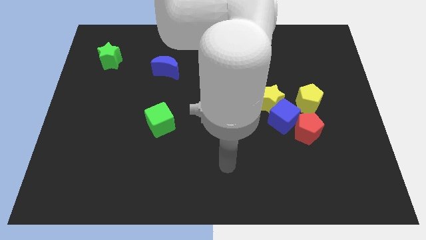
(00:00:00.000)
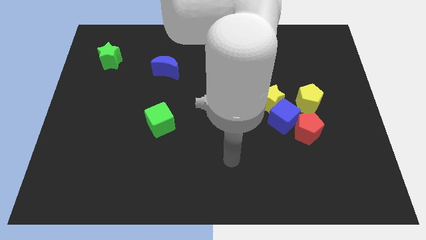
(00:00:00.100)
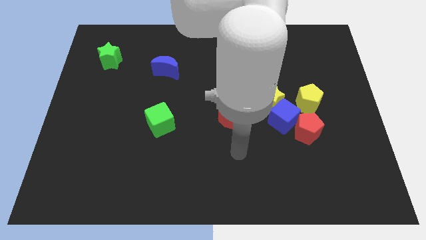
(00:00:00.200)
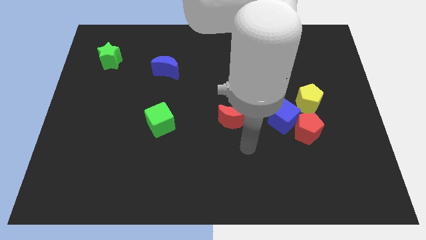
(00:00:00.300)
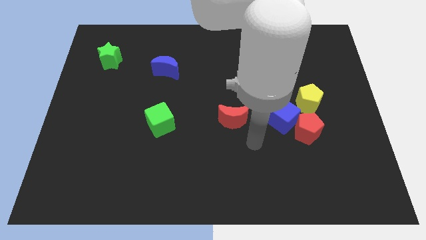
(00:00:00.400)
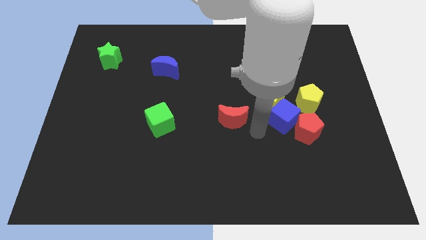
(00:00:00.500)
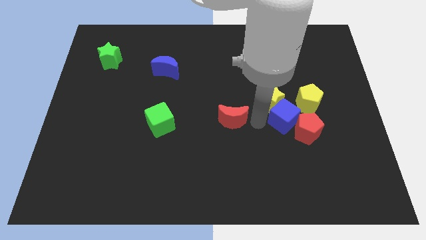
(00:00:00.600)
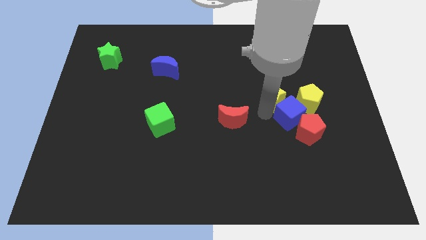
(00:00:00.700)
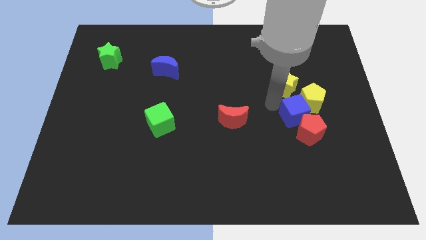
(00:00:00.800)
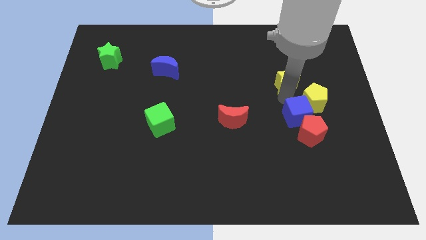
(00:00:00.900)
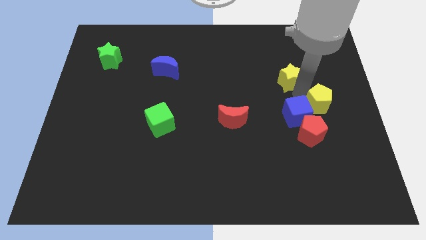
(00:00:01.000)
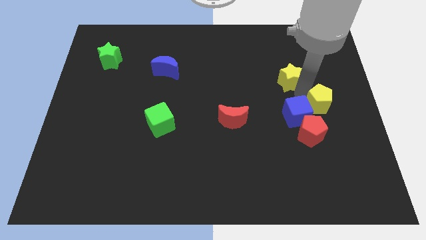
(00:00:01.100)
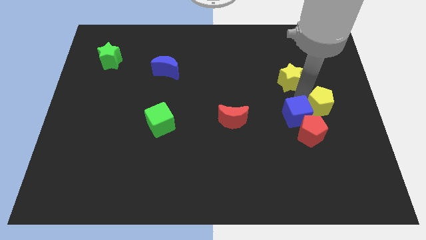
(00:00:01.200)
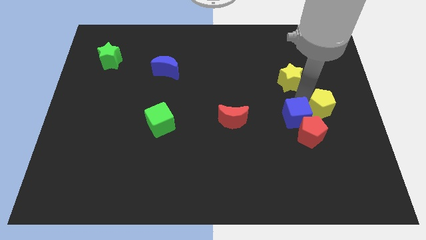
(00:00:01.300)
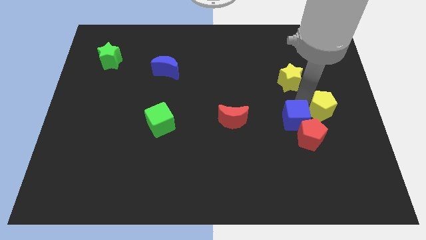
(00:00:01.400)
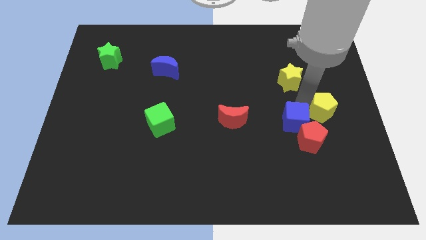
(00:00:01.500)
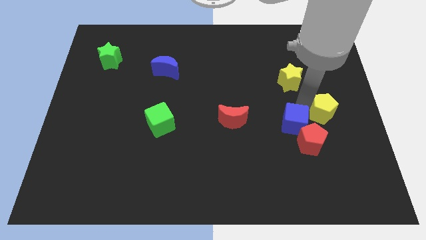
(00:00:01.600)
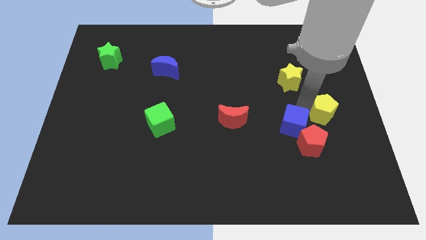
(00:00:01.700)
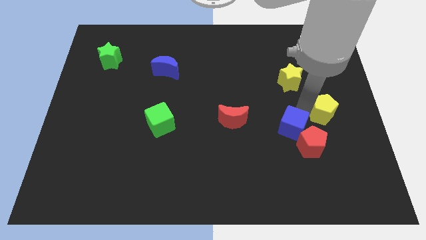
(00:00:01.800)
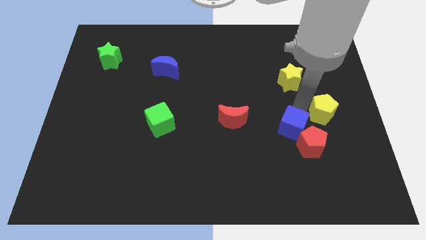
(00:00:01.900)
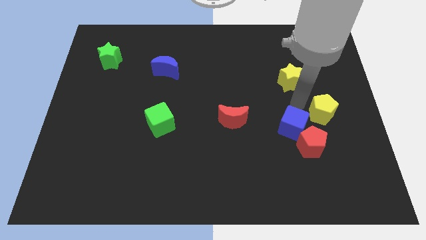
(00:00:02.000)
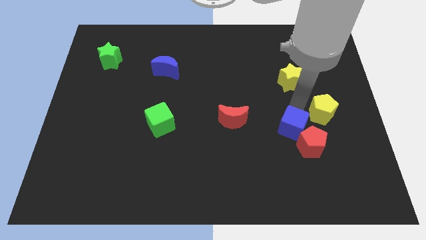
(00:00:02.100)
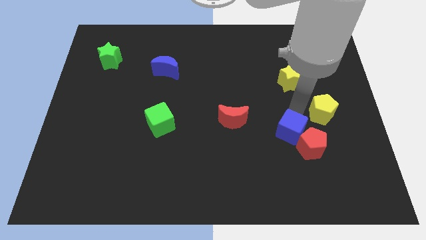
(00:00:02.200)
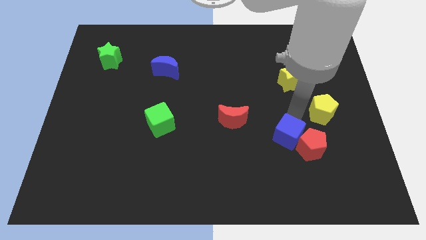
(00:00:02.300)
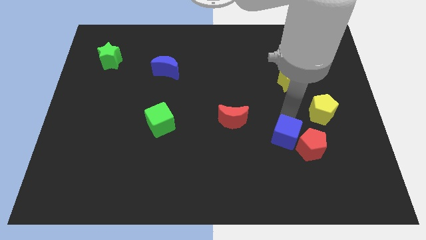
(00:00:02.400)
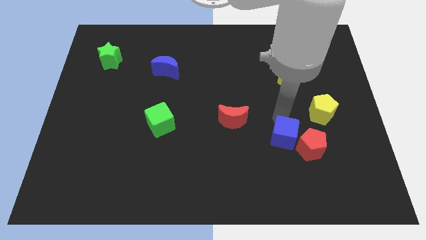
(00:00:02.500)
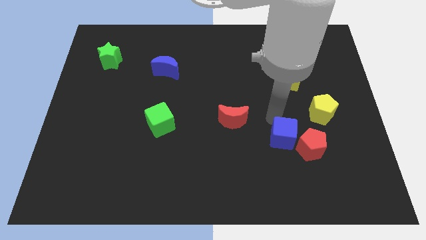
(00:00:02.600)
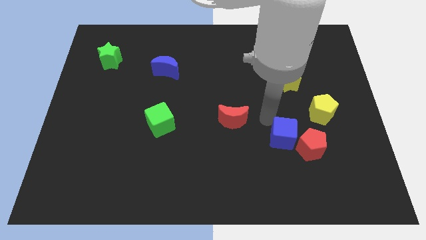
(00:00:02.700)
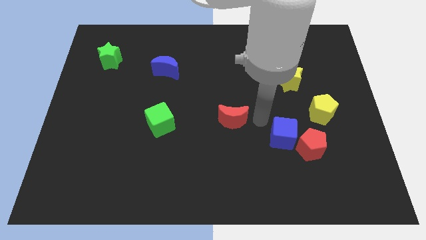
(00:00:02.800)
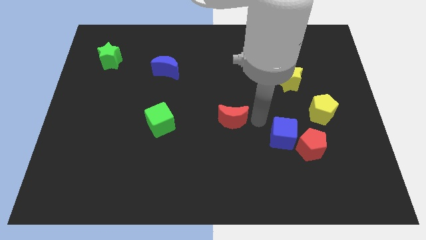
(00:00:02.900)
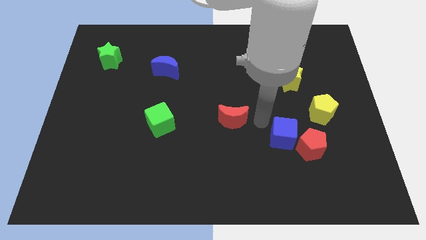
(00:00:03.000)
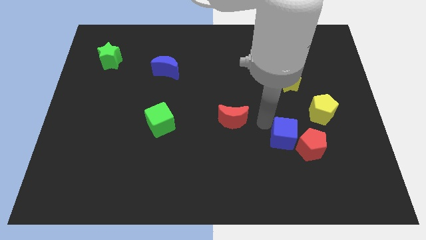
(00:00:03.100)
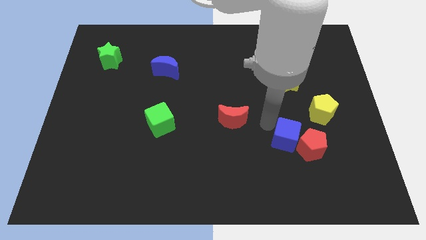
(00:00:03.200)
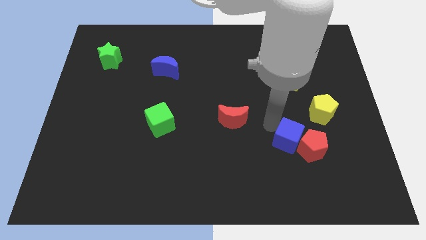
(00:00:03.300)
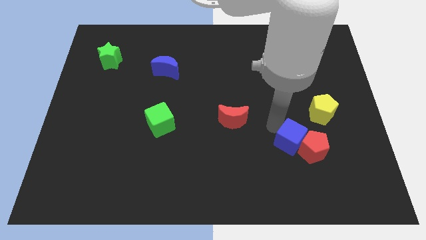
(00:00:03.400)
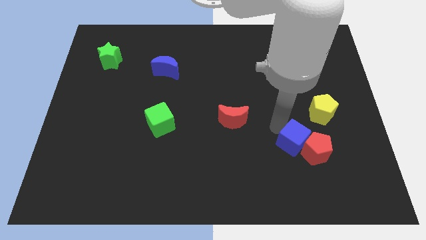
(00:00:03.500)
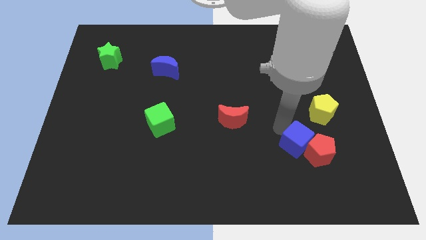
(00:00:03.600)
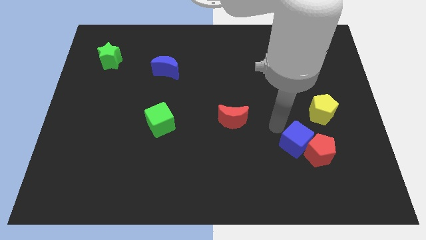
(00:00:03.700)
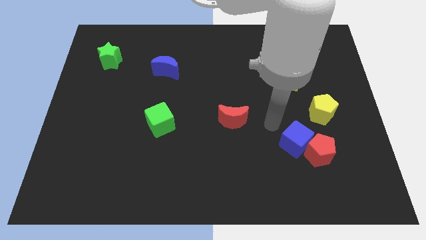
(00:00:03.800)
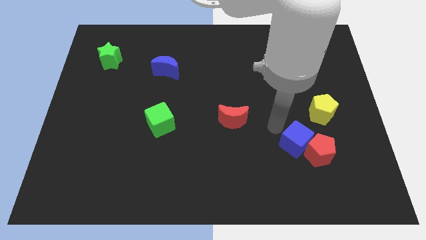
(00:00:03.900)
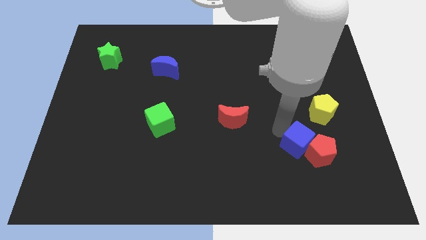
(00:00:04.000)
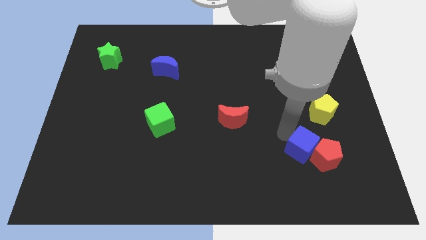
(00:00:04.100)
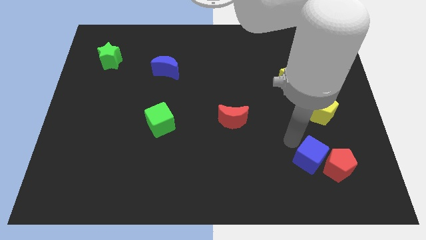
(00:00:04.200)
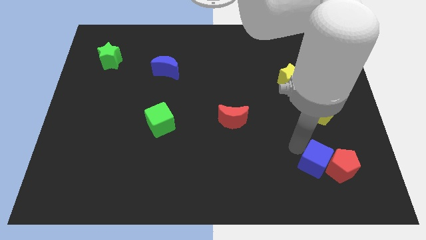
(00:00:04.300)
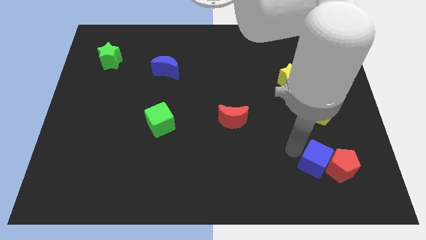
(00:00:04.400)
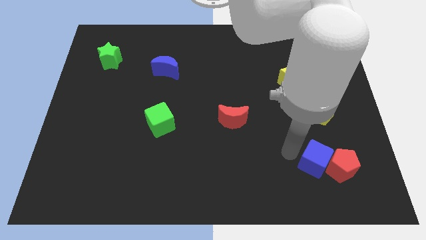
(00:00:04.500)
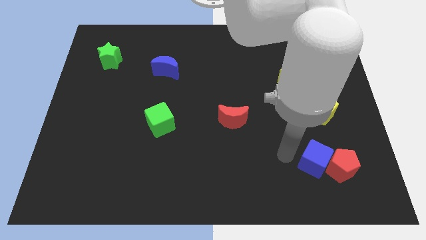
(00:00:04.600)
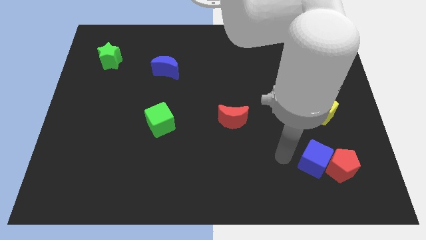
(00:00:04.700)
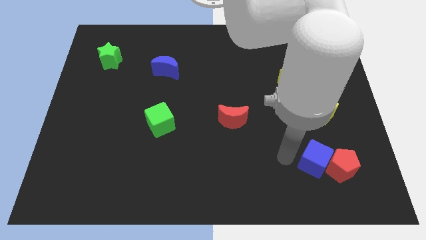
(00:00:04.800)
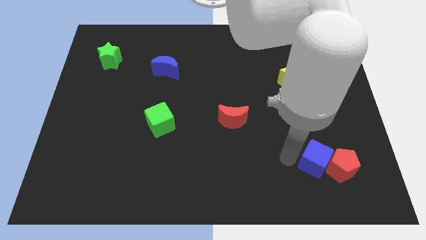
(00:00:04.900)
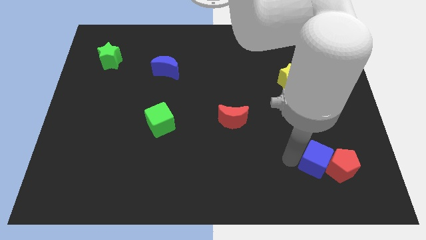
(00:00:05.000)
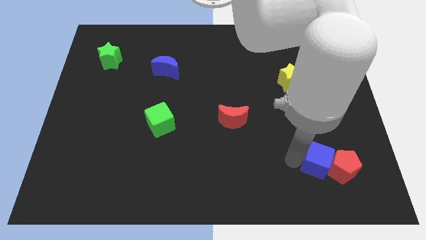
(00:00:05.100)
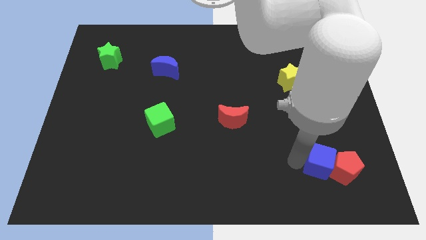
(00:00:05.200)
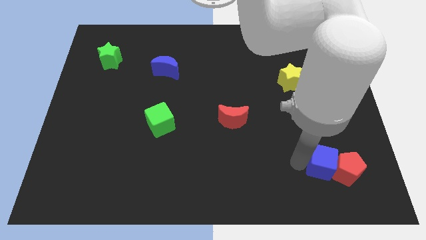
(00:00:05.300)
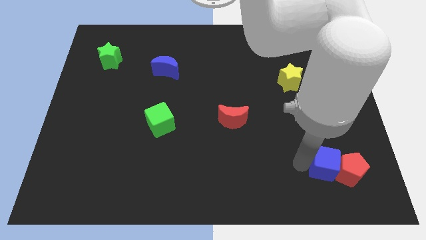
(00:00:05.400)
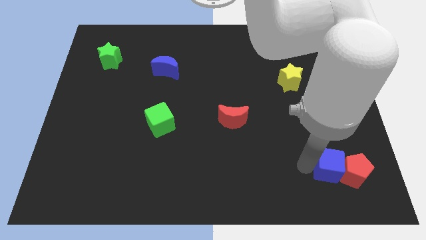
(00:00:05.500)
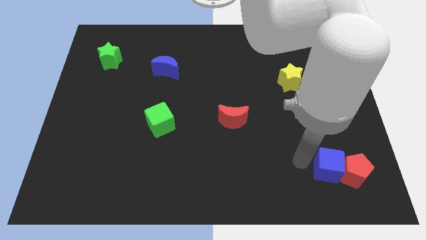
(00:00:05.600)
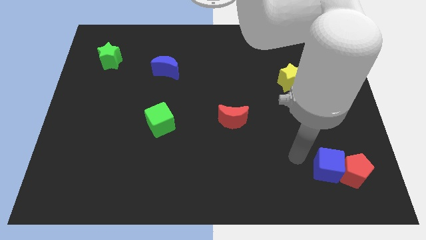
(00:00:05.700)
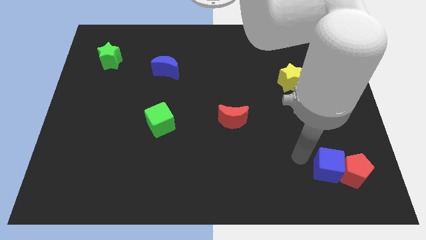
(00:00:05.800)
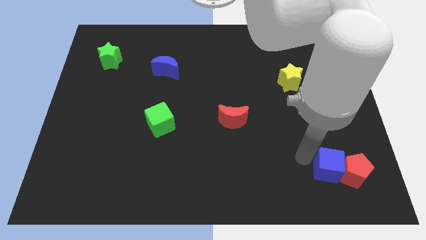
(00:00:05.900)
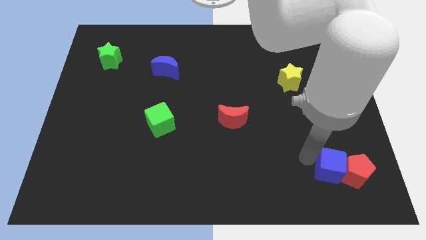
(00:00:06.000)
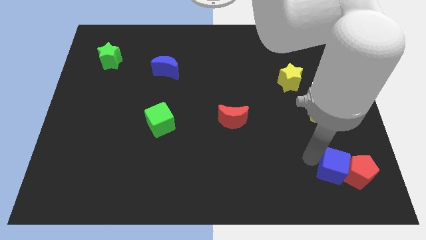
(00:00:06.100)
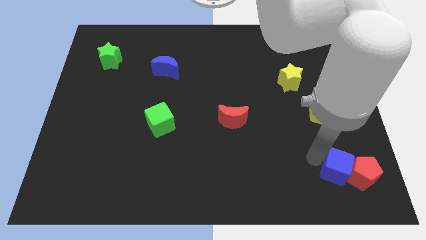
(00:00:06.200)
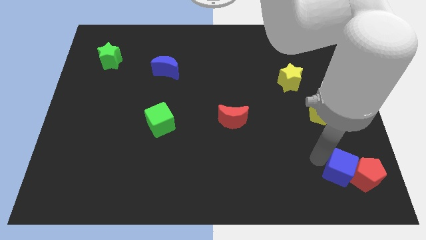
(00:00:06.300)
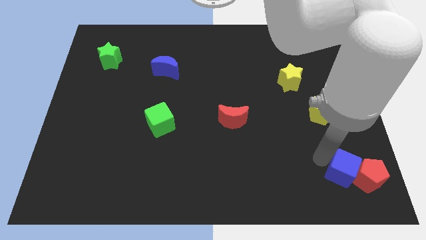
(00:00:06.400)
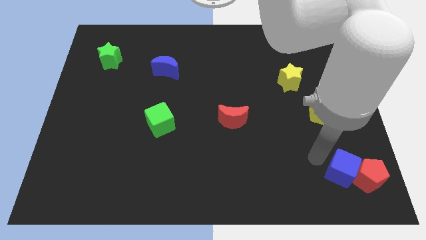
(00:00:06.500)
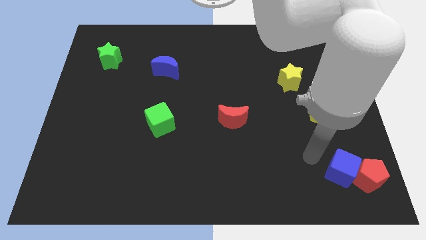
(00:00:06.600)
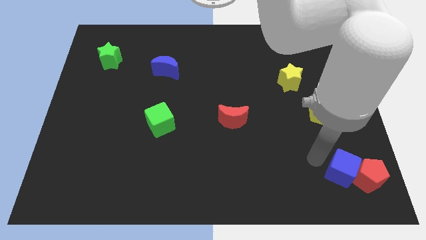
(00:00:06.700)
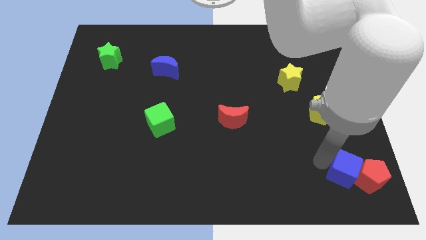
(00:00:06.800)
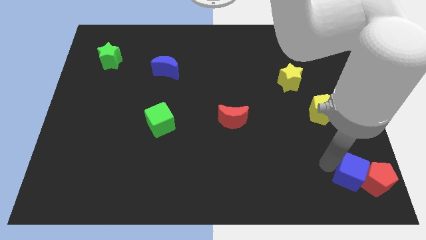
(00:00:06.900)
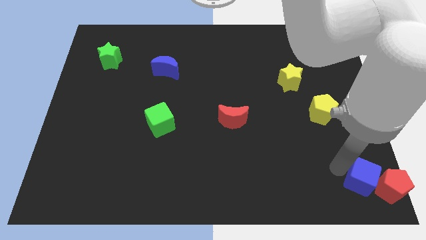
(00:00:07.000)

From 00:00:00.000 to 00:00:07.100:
put the blue cube to the bottom right

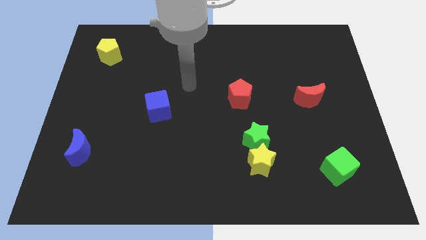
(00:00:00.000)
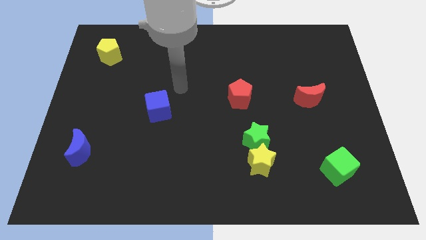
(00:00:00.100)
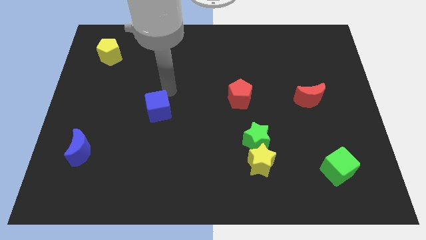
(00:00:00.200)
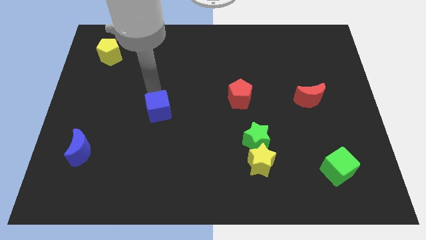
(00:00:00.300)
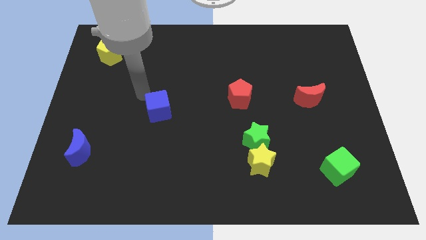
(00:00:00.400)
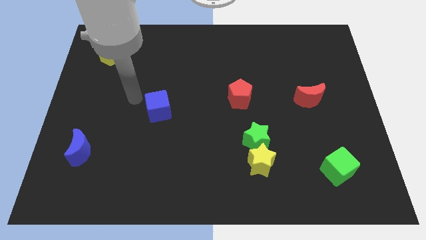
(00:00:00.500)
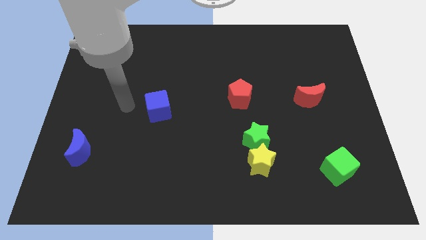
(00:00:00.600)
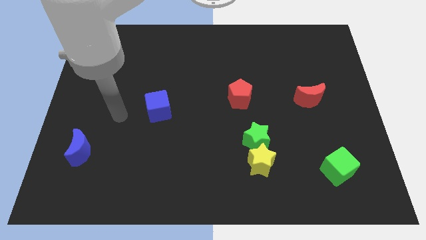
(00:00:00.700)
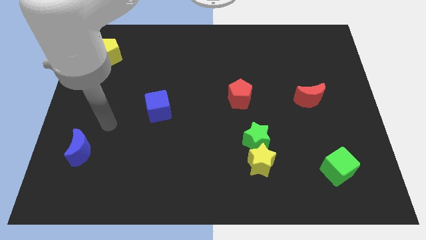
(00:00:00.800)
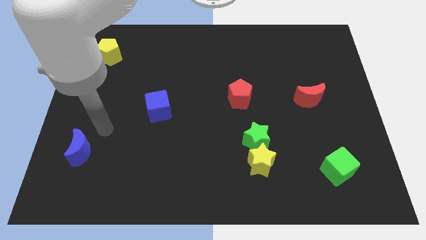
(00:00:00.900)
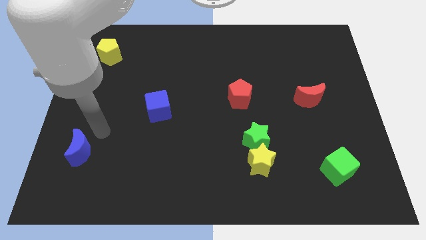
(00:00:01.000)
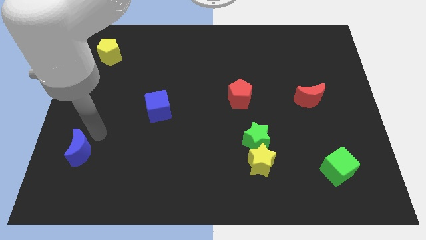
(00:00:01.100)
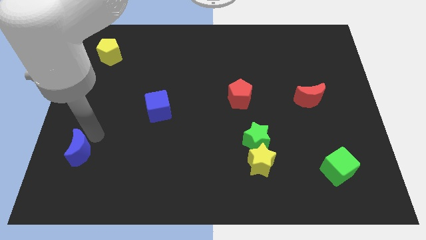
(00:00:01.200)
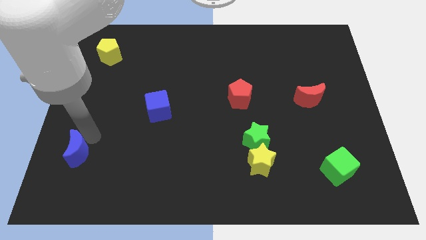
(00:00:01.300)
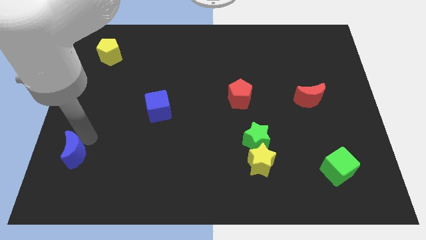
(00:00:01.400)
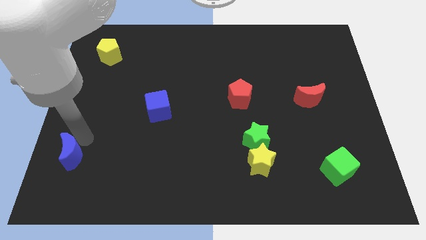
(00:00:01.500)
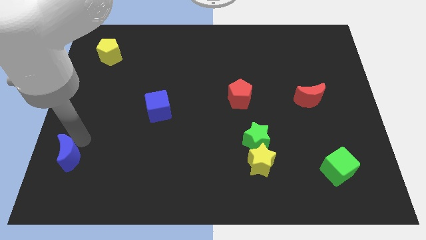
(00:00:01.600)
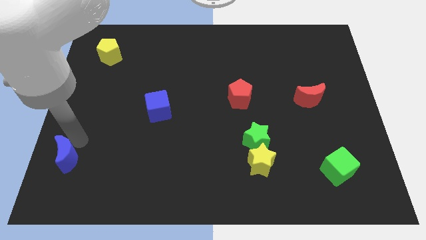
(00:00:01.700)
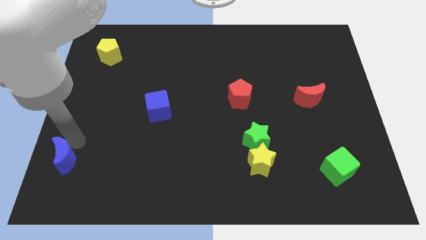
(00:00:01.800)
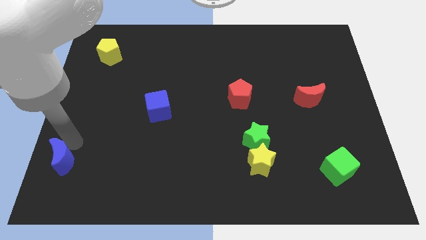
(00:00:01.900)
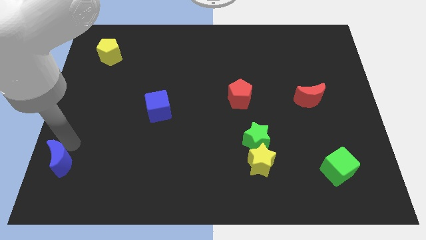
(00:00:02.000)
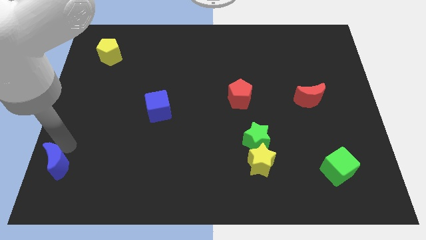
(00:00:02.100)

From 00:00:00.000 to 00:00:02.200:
put the blue moon to the bottom left corner
